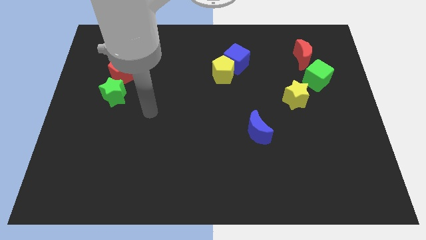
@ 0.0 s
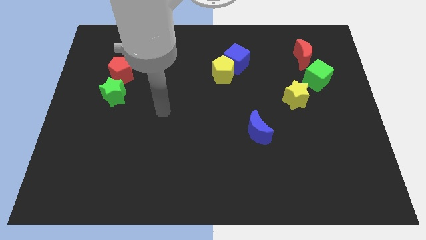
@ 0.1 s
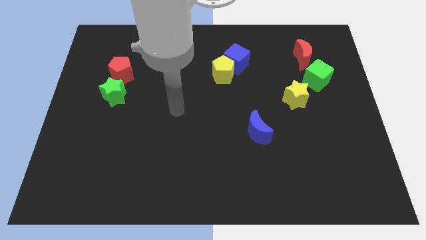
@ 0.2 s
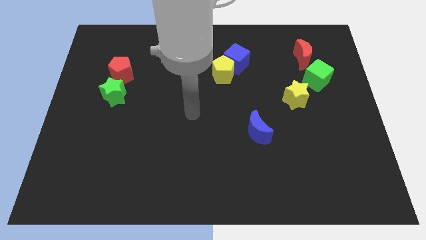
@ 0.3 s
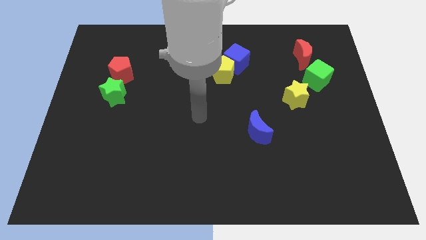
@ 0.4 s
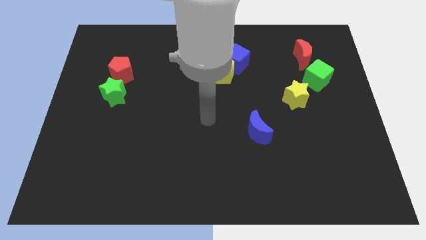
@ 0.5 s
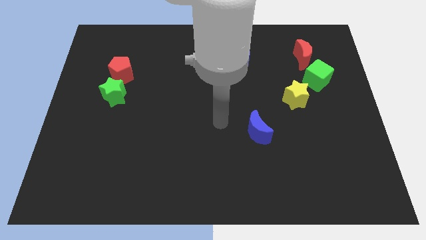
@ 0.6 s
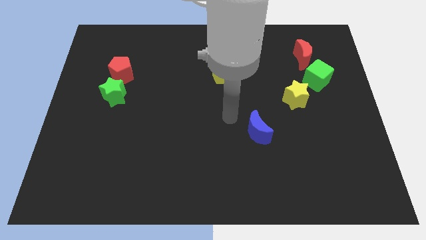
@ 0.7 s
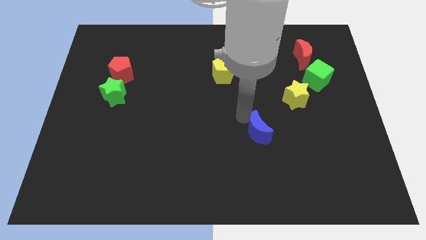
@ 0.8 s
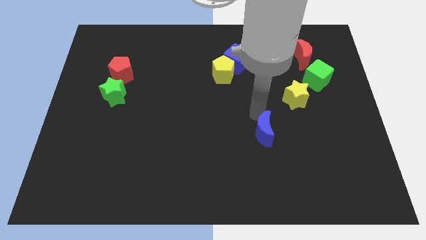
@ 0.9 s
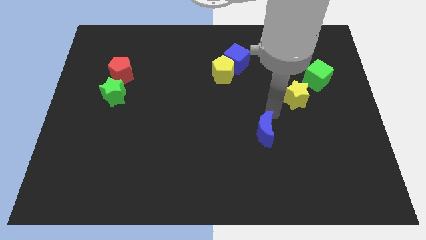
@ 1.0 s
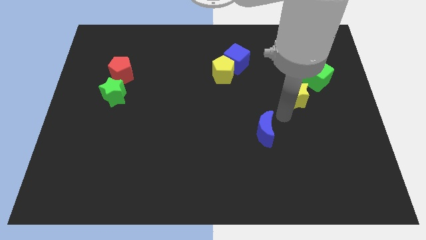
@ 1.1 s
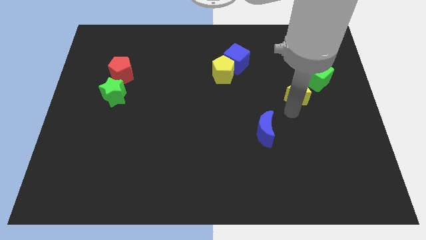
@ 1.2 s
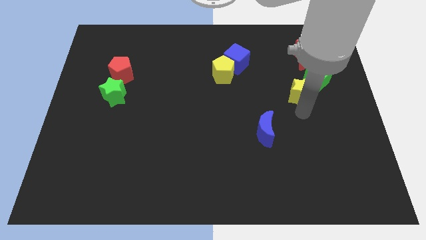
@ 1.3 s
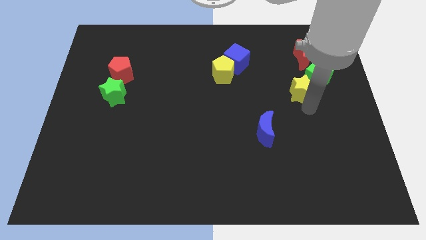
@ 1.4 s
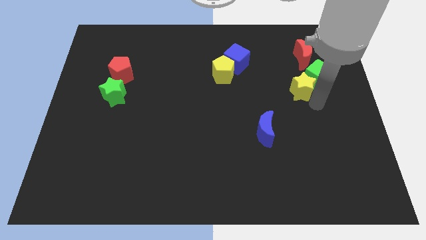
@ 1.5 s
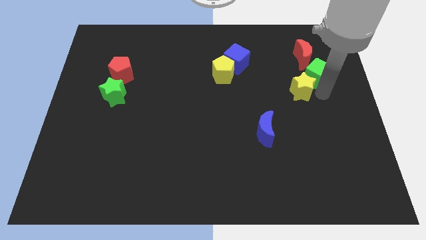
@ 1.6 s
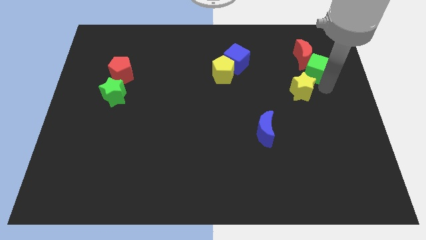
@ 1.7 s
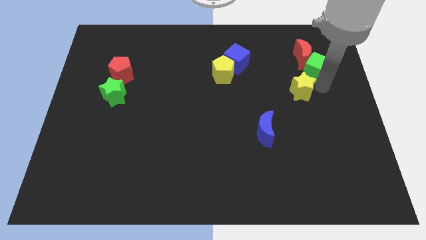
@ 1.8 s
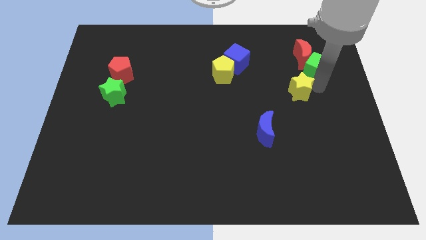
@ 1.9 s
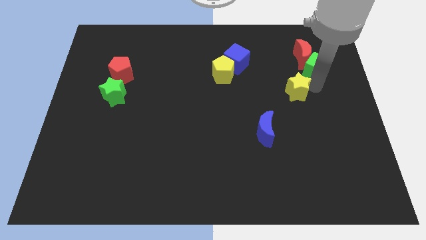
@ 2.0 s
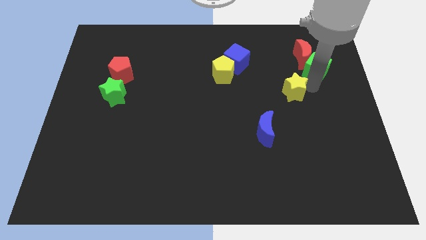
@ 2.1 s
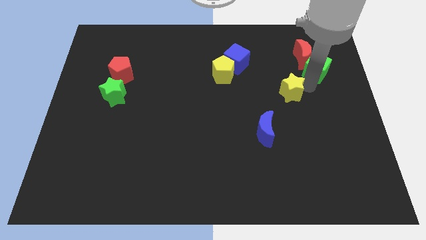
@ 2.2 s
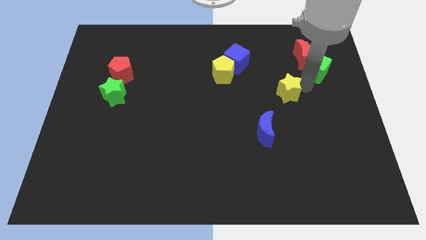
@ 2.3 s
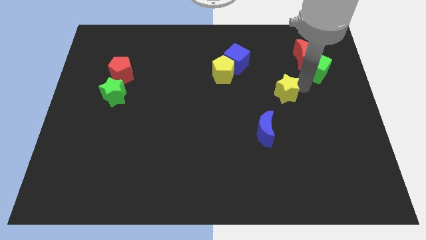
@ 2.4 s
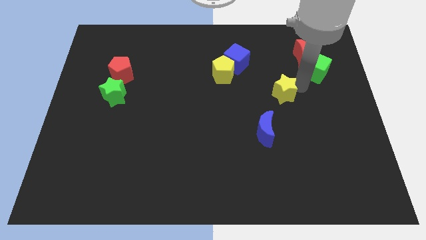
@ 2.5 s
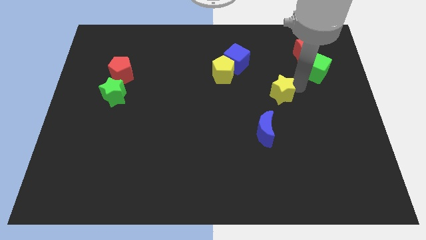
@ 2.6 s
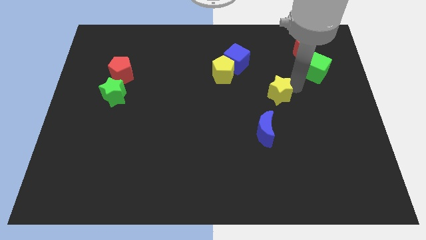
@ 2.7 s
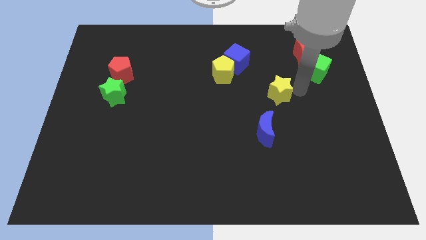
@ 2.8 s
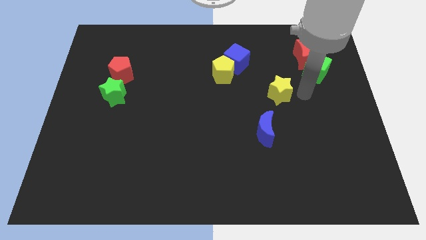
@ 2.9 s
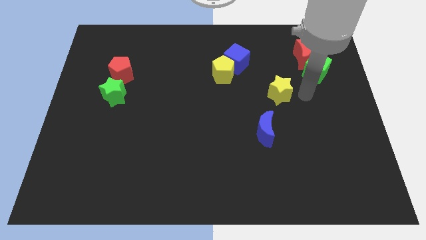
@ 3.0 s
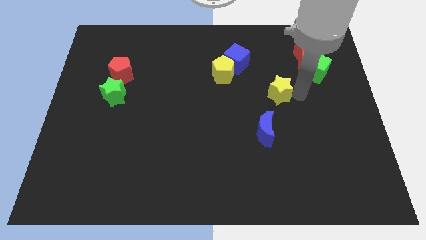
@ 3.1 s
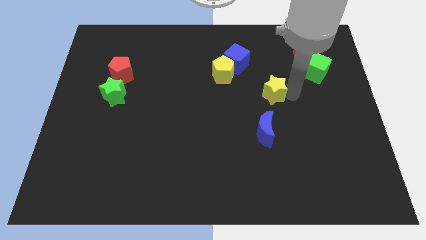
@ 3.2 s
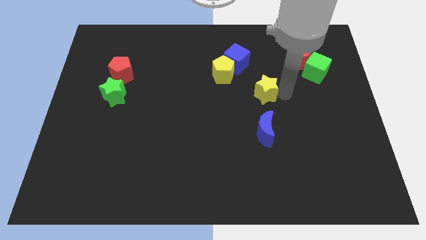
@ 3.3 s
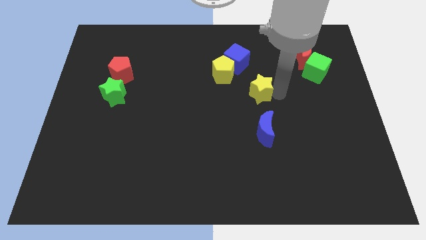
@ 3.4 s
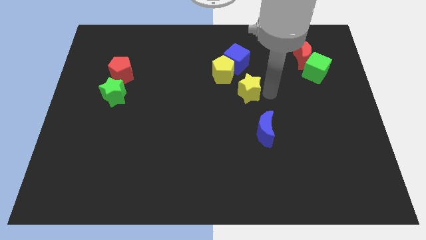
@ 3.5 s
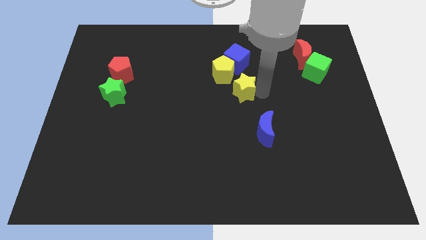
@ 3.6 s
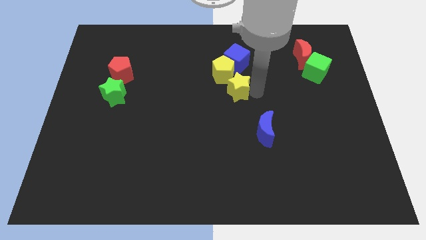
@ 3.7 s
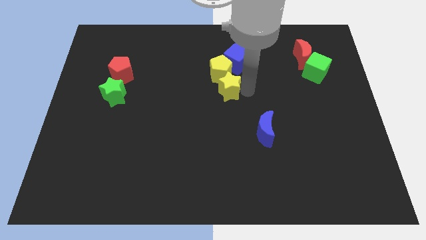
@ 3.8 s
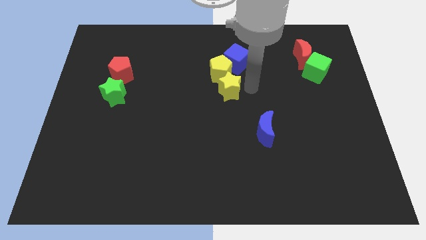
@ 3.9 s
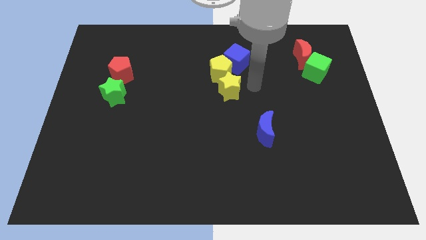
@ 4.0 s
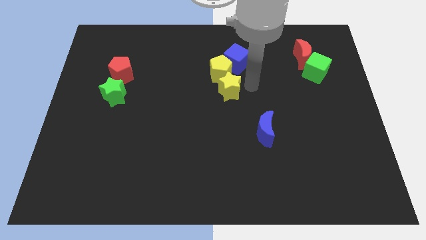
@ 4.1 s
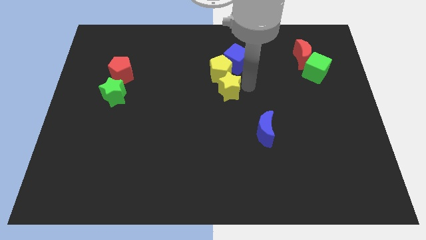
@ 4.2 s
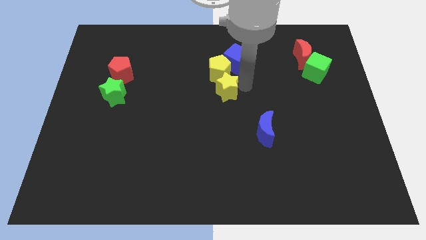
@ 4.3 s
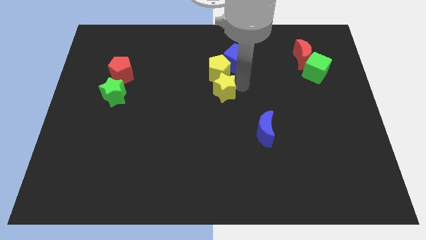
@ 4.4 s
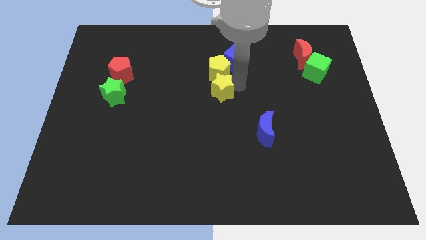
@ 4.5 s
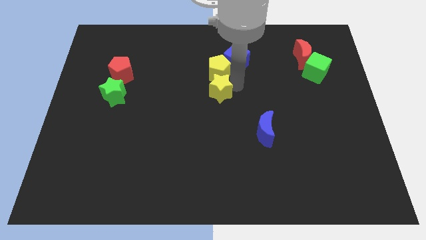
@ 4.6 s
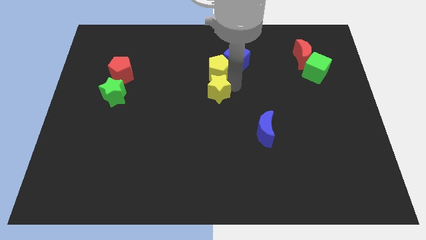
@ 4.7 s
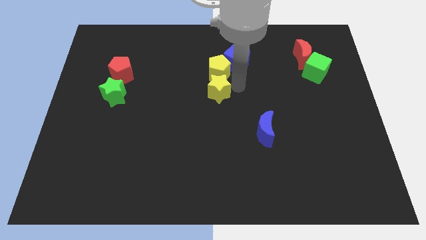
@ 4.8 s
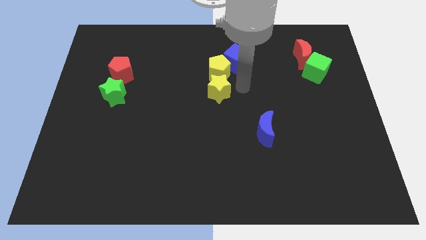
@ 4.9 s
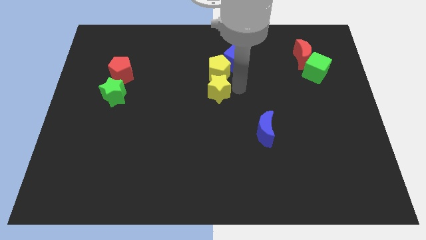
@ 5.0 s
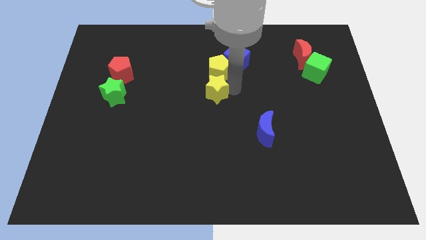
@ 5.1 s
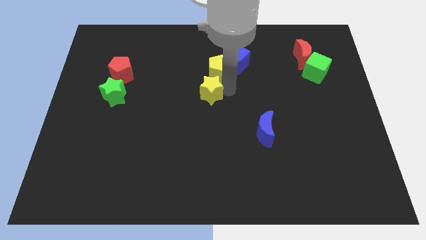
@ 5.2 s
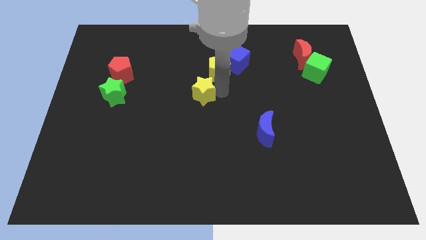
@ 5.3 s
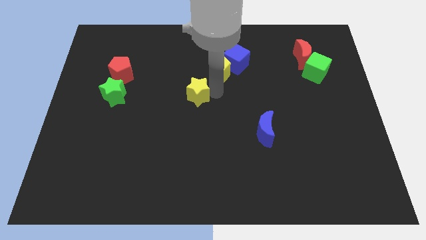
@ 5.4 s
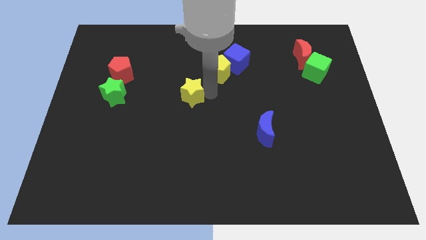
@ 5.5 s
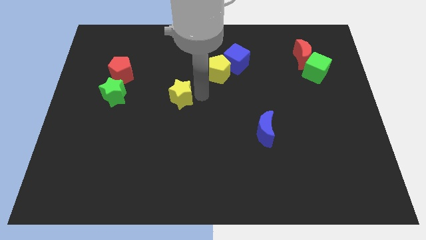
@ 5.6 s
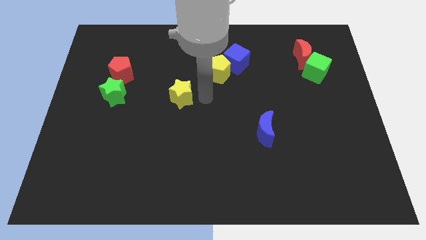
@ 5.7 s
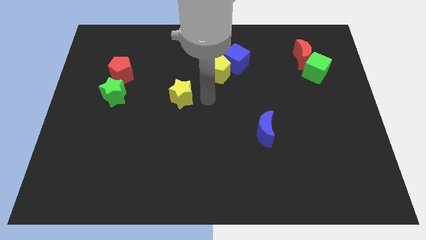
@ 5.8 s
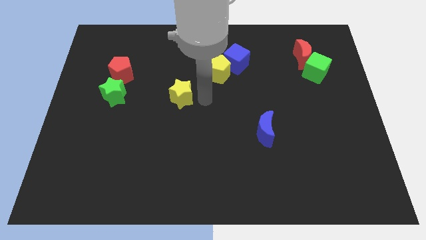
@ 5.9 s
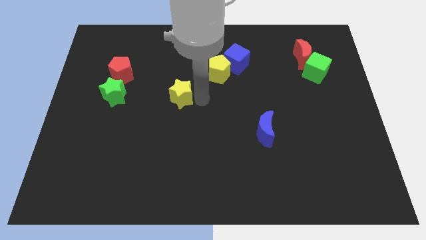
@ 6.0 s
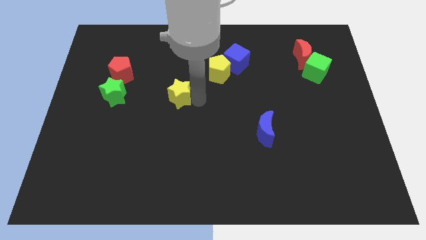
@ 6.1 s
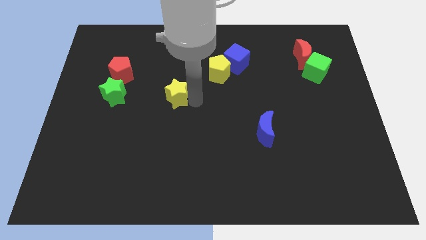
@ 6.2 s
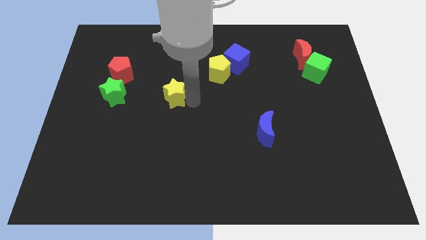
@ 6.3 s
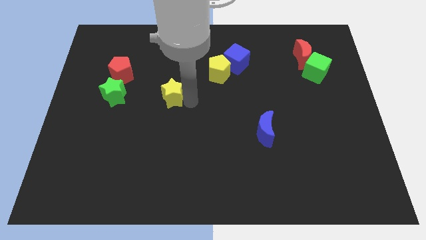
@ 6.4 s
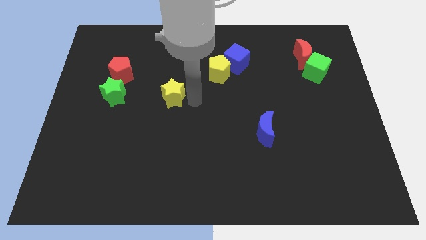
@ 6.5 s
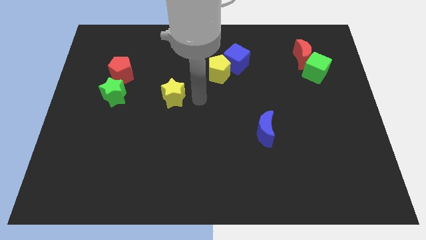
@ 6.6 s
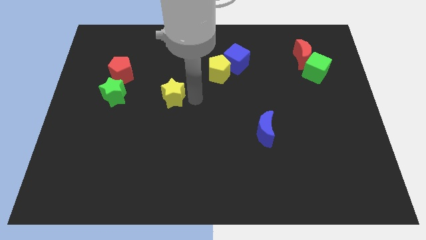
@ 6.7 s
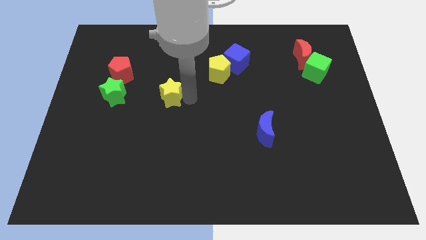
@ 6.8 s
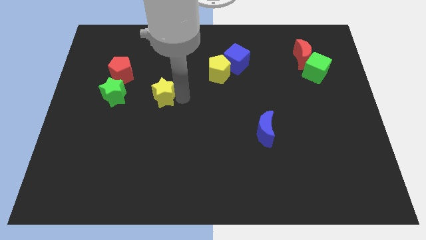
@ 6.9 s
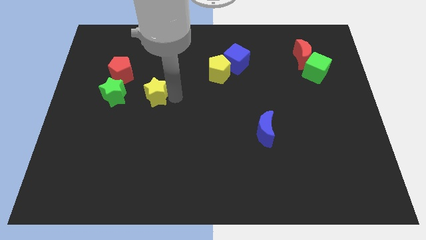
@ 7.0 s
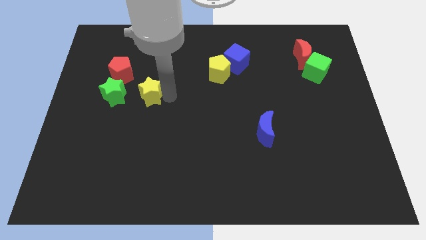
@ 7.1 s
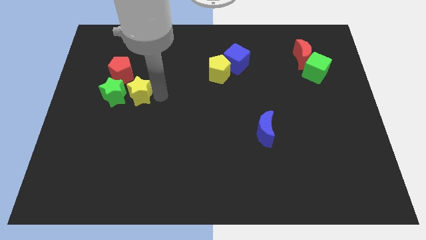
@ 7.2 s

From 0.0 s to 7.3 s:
push the yellow star close to the green star

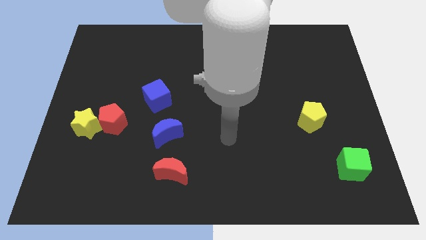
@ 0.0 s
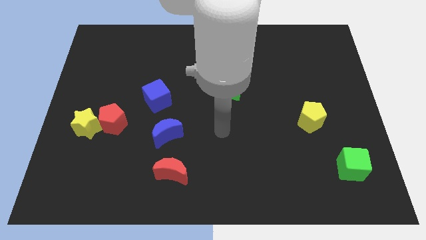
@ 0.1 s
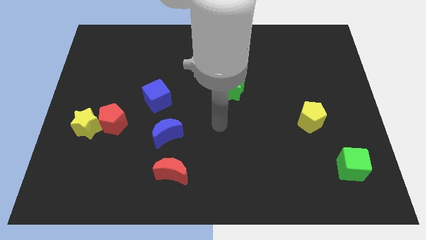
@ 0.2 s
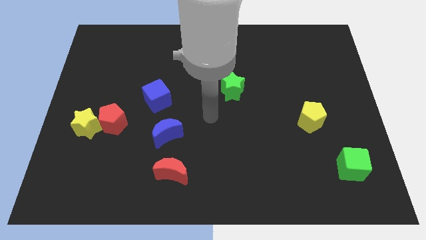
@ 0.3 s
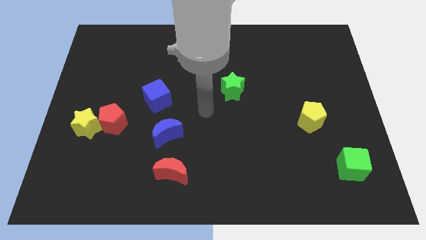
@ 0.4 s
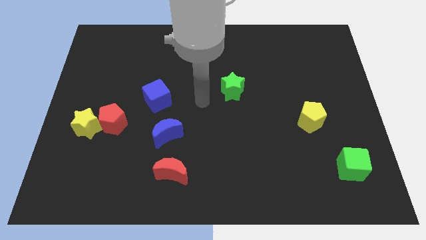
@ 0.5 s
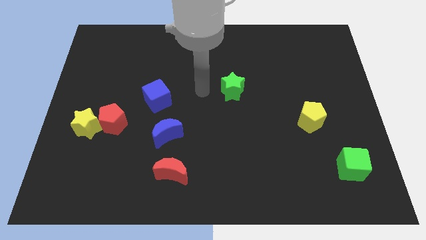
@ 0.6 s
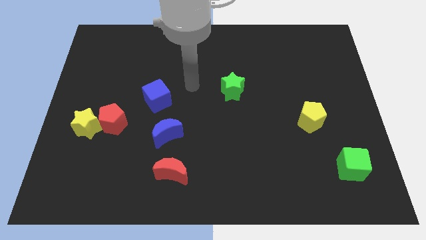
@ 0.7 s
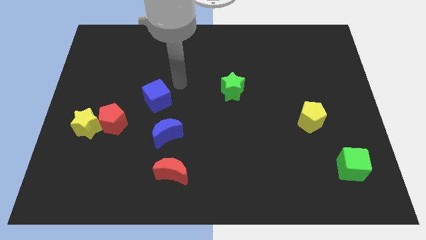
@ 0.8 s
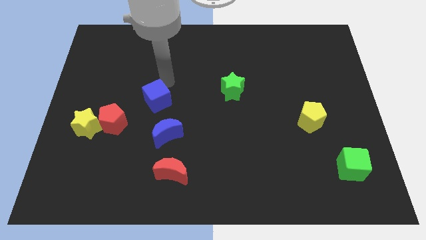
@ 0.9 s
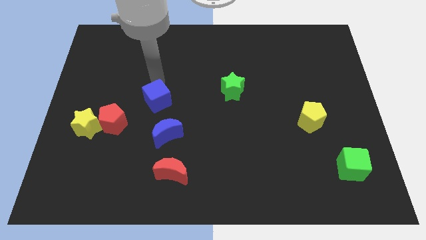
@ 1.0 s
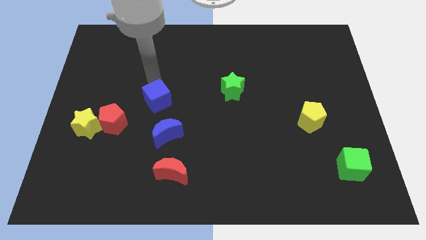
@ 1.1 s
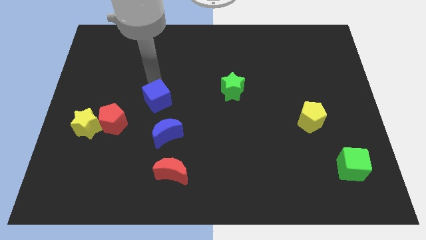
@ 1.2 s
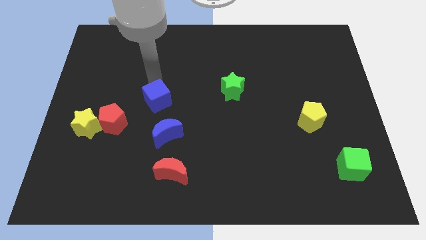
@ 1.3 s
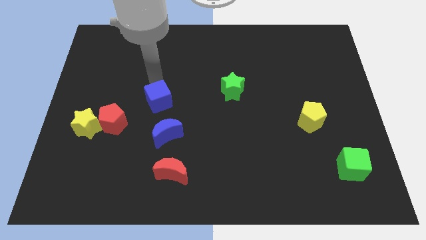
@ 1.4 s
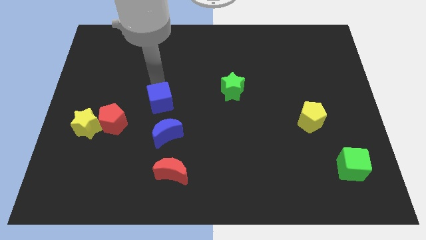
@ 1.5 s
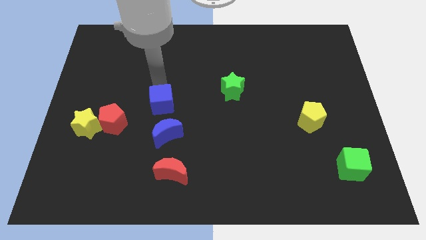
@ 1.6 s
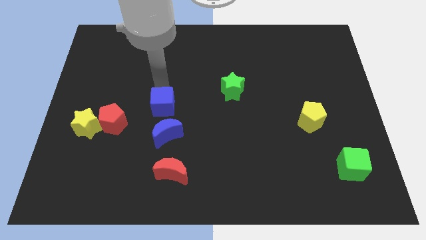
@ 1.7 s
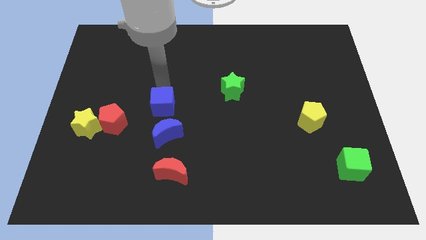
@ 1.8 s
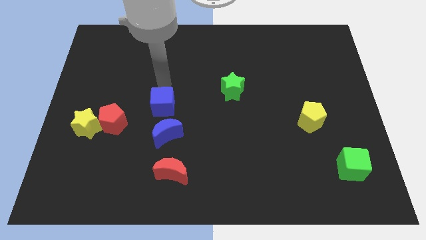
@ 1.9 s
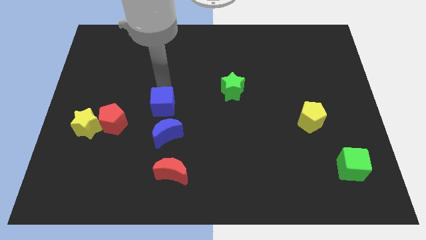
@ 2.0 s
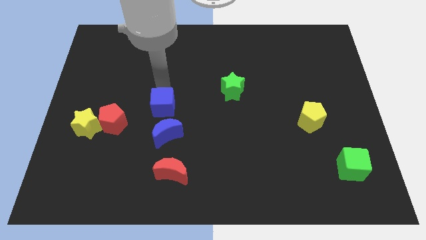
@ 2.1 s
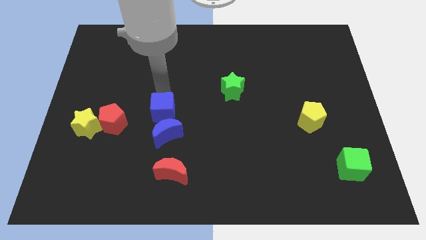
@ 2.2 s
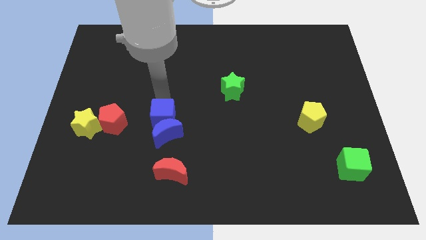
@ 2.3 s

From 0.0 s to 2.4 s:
put the blue cube towards the blue moon
